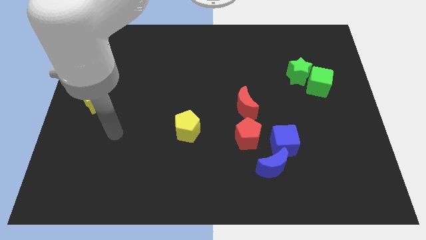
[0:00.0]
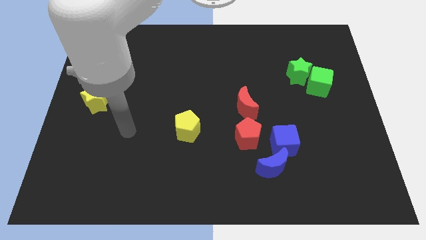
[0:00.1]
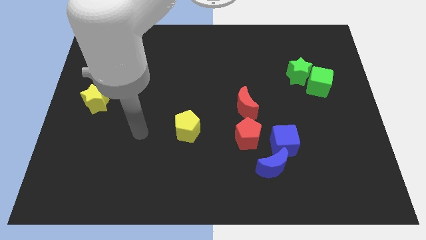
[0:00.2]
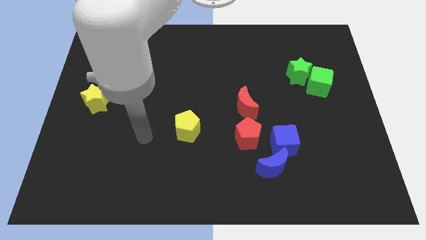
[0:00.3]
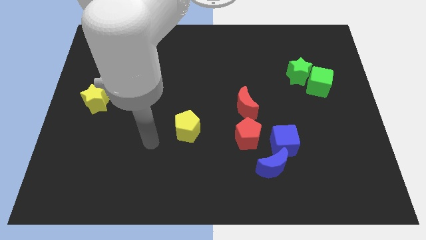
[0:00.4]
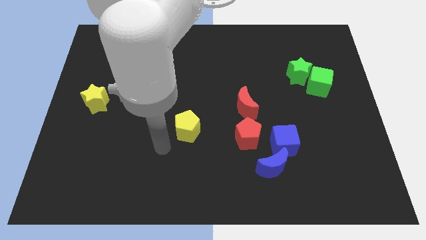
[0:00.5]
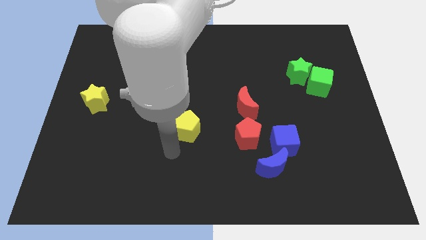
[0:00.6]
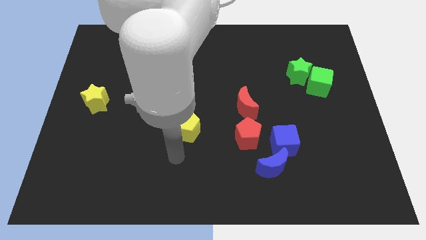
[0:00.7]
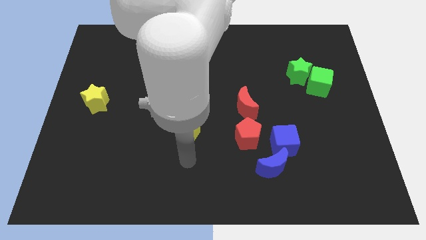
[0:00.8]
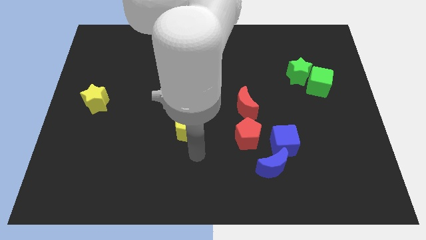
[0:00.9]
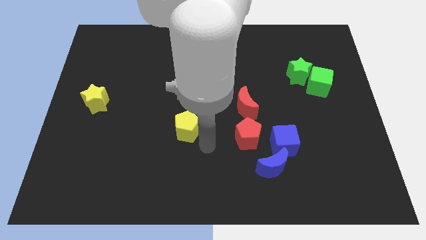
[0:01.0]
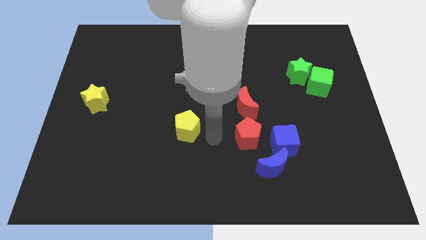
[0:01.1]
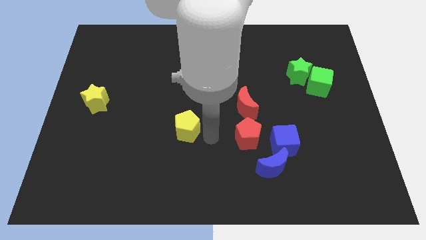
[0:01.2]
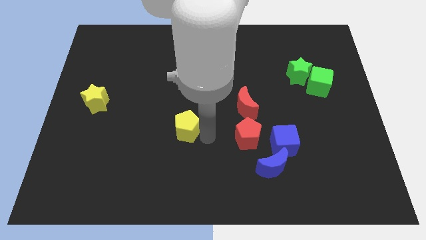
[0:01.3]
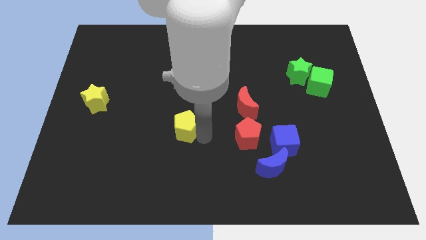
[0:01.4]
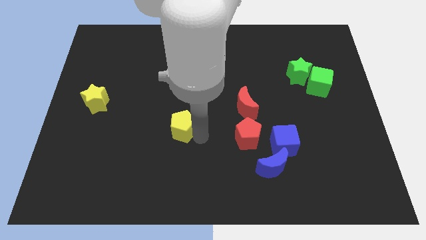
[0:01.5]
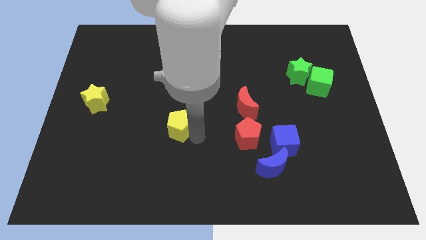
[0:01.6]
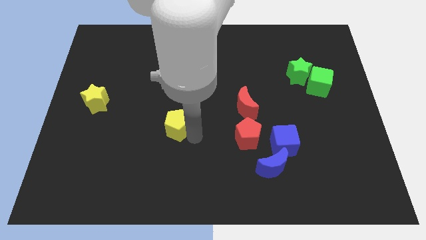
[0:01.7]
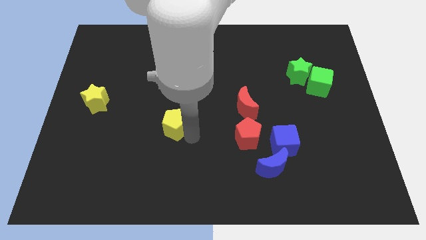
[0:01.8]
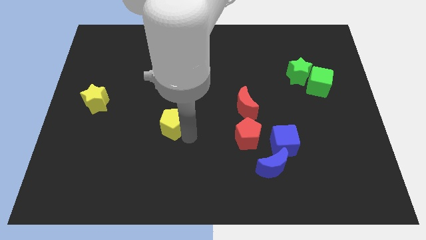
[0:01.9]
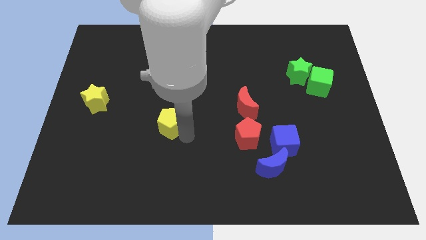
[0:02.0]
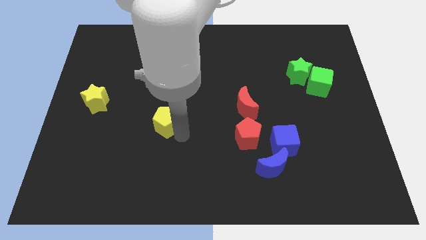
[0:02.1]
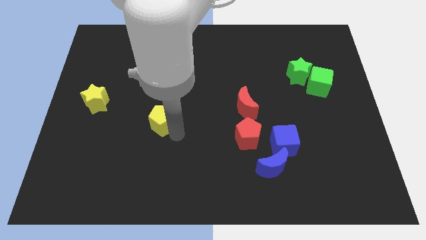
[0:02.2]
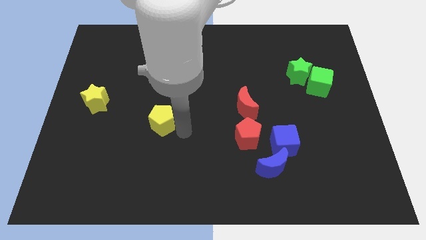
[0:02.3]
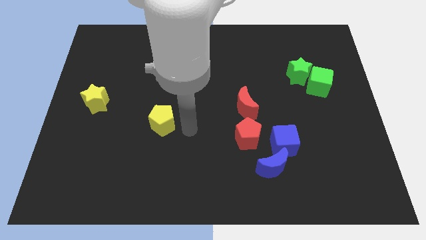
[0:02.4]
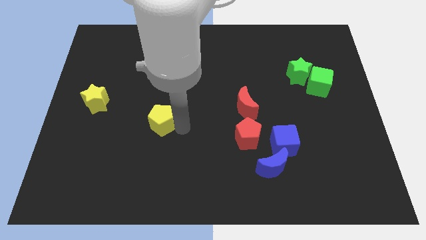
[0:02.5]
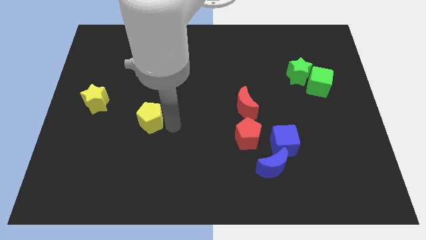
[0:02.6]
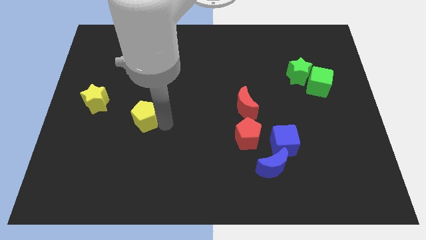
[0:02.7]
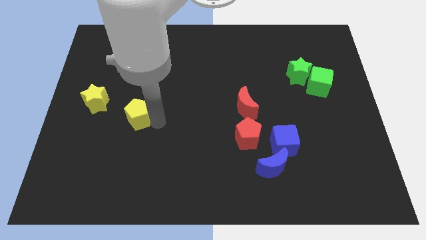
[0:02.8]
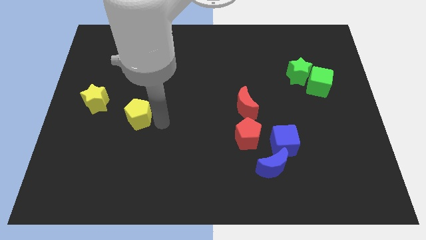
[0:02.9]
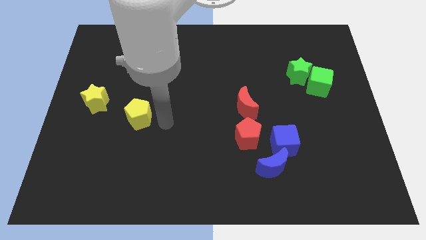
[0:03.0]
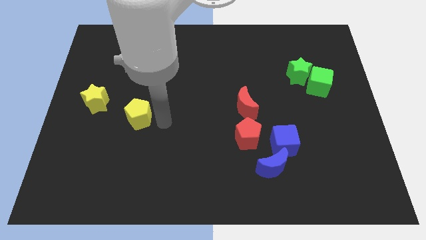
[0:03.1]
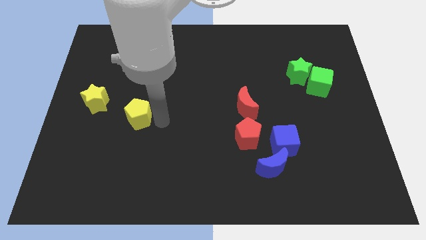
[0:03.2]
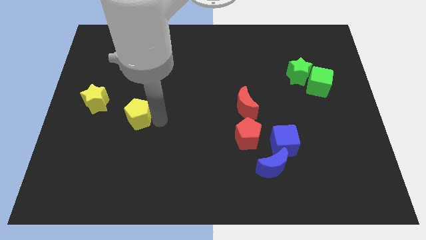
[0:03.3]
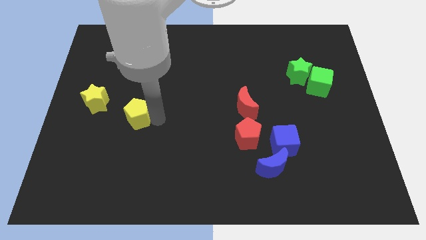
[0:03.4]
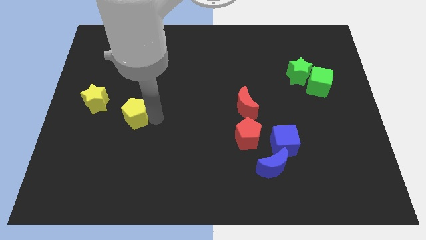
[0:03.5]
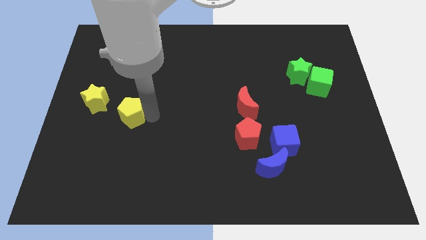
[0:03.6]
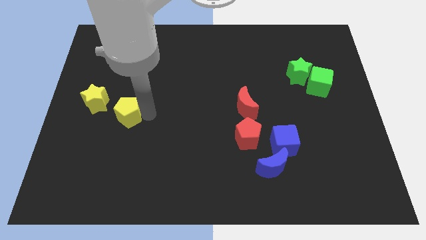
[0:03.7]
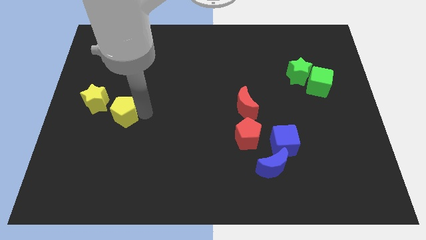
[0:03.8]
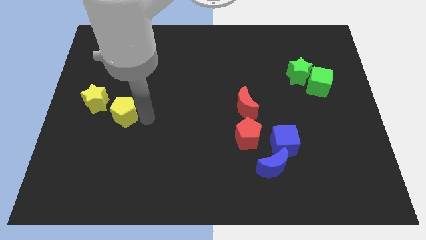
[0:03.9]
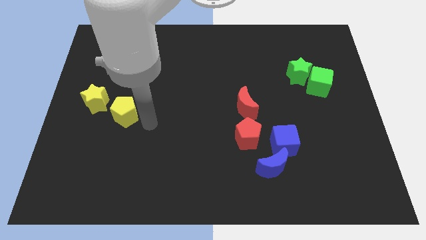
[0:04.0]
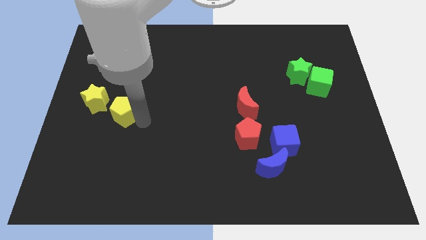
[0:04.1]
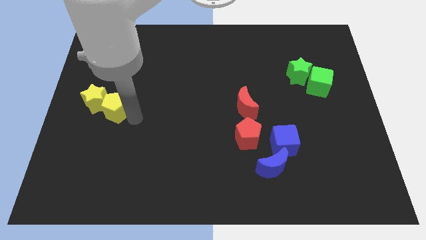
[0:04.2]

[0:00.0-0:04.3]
move the yellow pentagon next to the yellow star

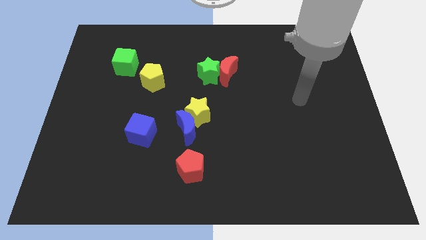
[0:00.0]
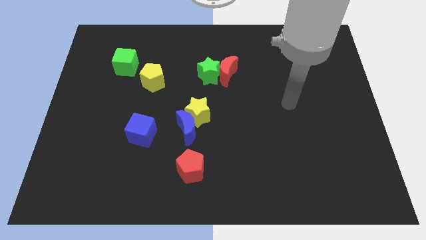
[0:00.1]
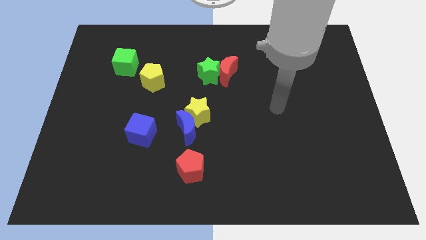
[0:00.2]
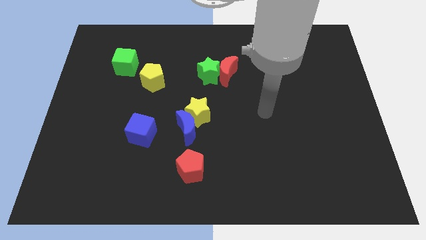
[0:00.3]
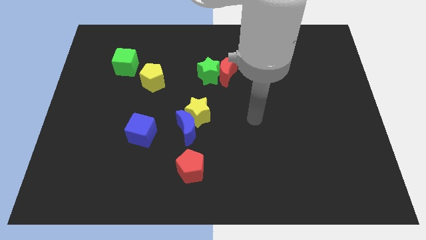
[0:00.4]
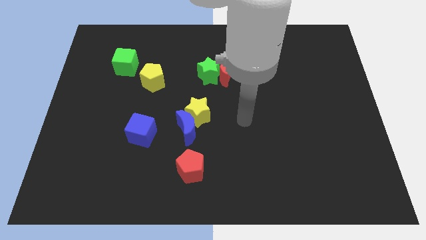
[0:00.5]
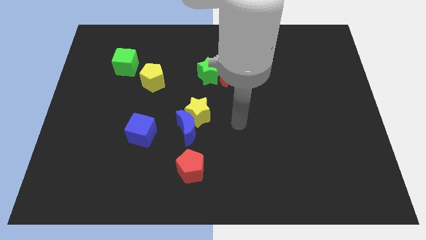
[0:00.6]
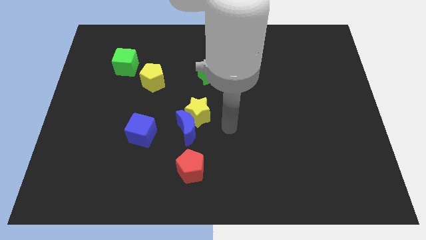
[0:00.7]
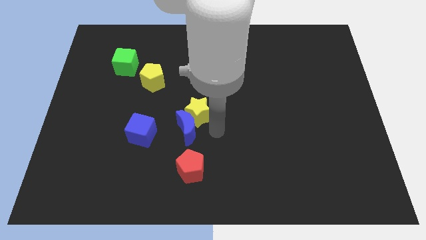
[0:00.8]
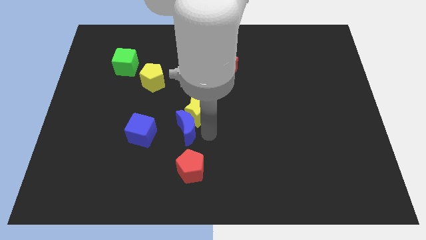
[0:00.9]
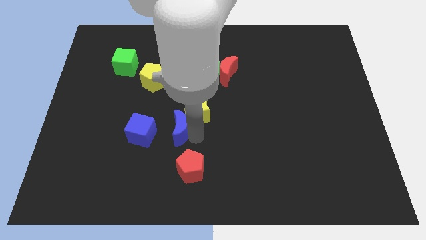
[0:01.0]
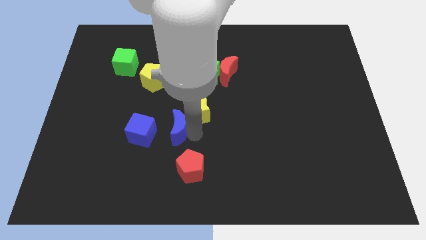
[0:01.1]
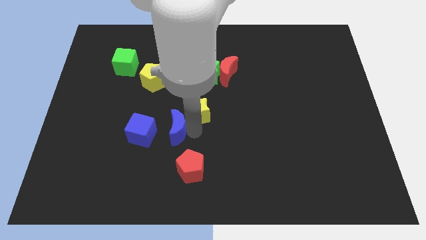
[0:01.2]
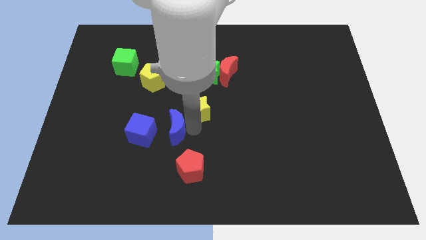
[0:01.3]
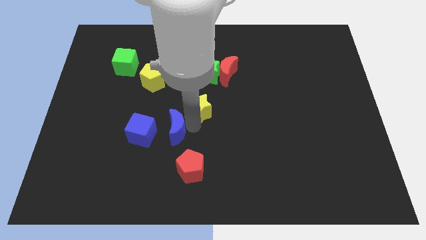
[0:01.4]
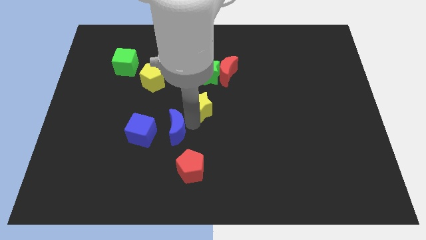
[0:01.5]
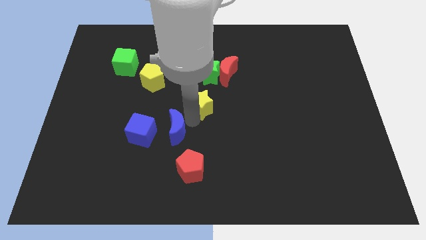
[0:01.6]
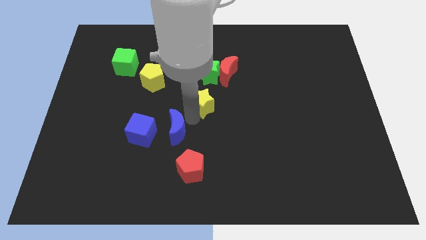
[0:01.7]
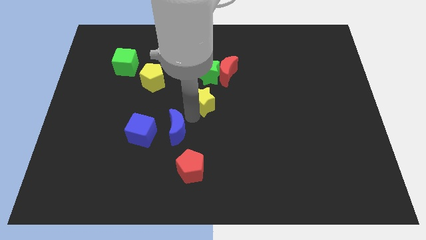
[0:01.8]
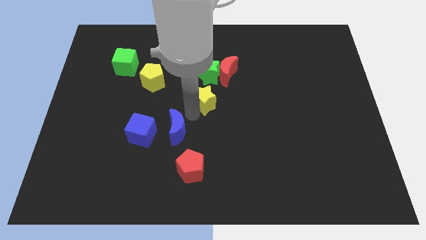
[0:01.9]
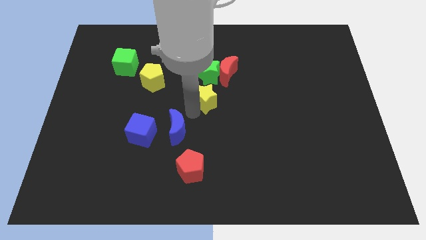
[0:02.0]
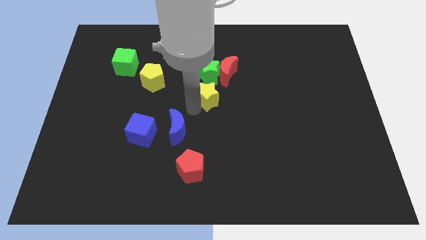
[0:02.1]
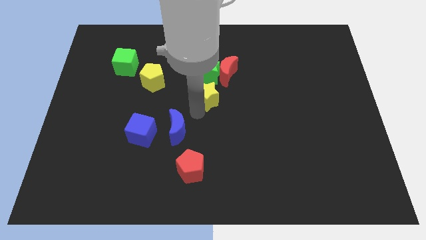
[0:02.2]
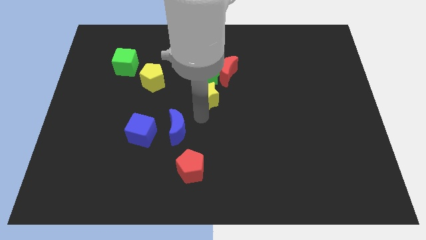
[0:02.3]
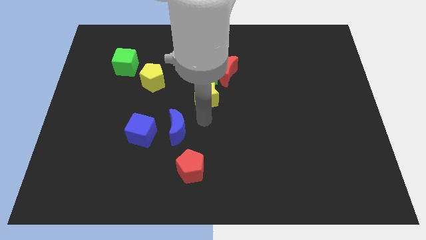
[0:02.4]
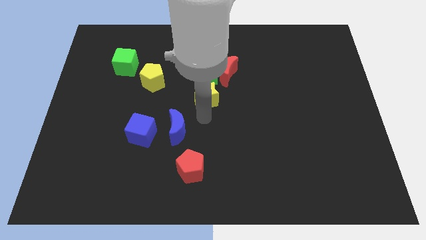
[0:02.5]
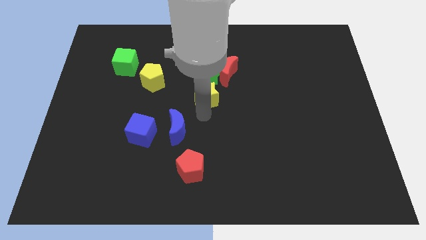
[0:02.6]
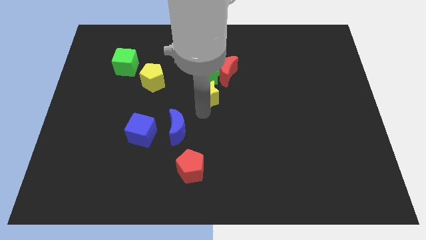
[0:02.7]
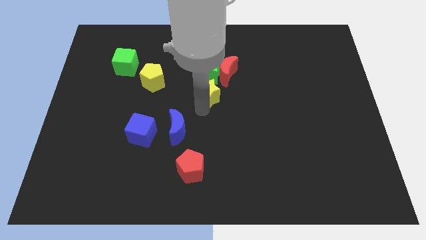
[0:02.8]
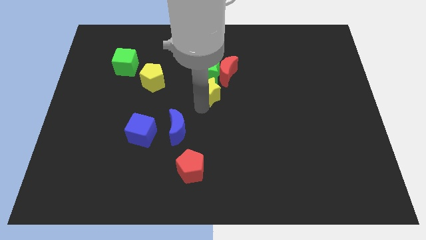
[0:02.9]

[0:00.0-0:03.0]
put the yellow star towards the green star
